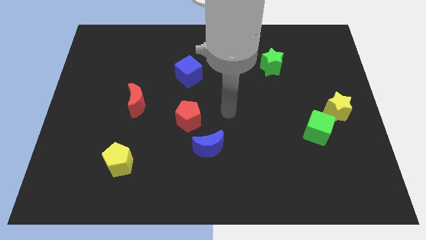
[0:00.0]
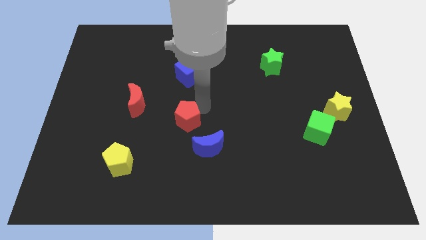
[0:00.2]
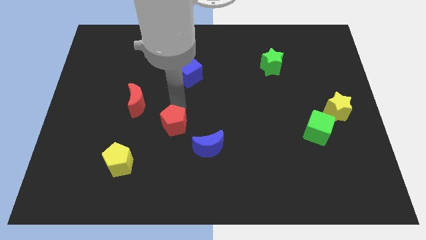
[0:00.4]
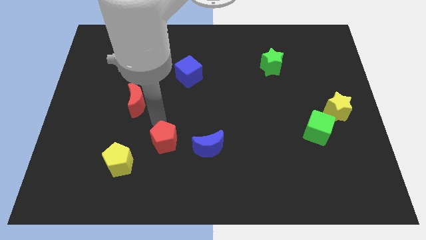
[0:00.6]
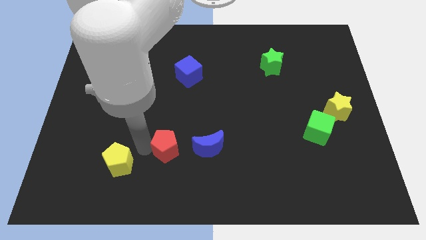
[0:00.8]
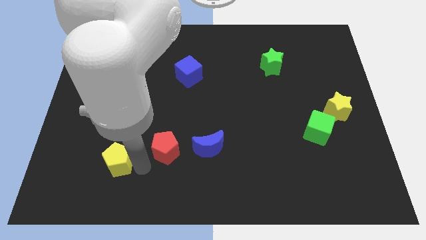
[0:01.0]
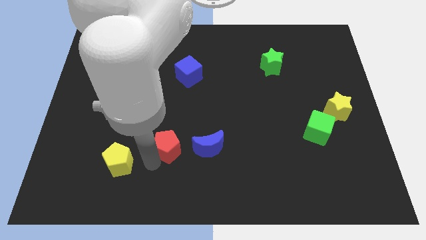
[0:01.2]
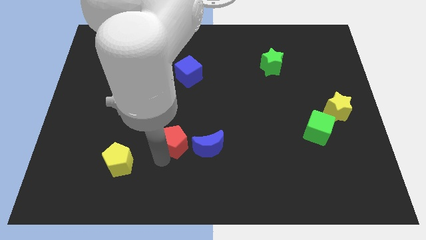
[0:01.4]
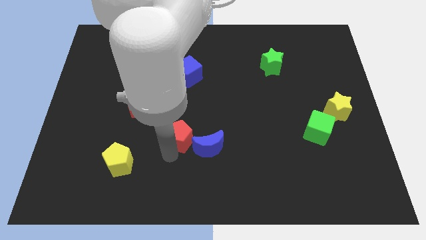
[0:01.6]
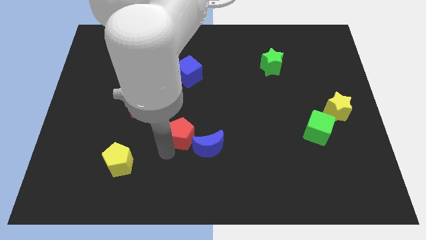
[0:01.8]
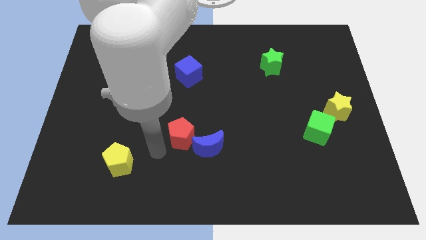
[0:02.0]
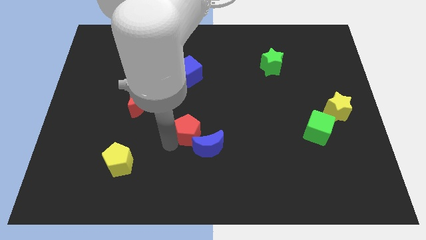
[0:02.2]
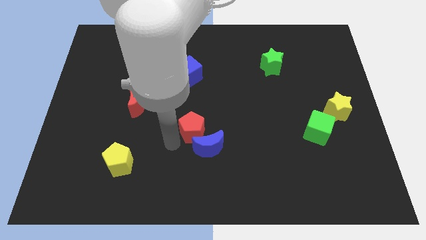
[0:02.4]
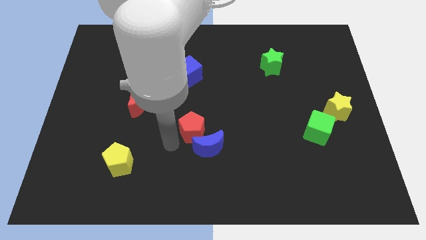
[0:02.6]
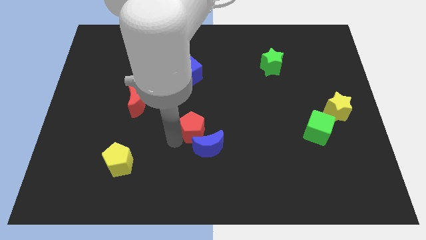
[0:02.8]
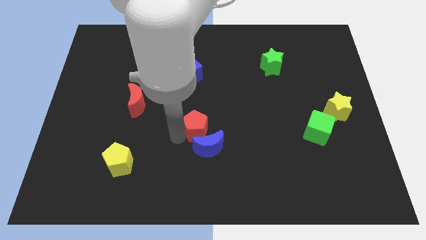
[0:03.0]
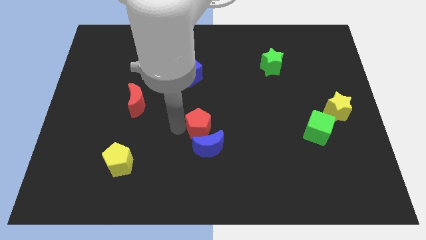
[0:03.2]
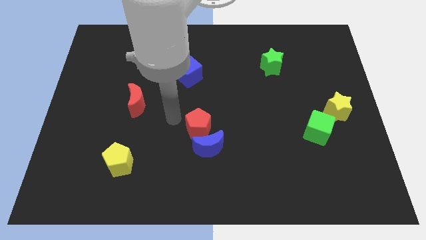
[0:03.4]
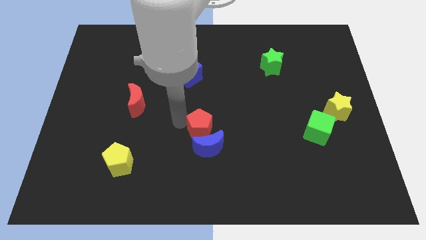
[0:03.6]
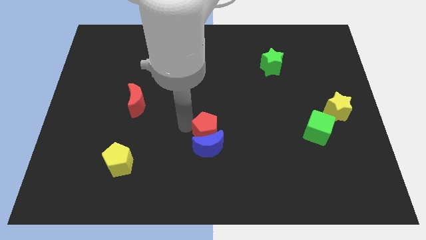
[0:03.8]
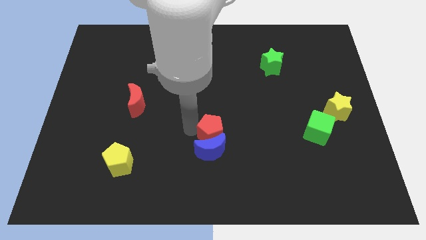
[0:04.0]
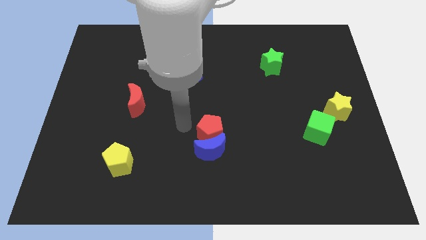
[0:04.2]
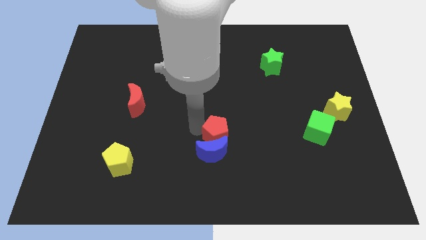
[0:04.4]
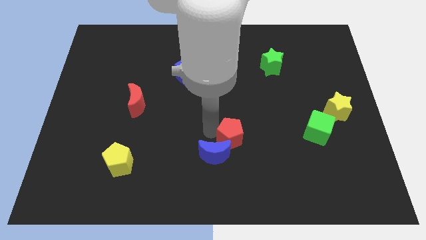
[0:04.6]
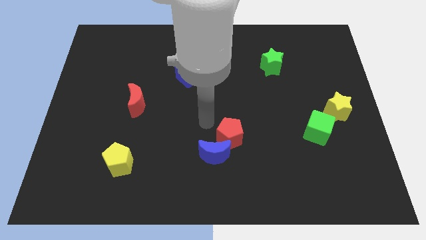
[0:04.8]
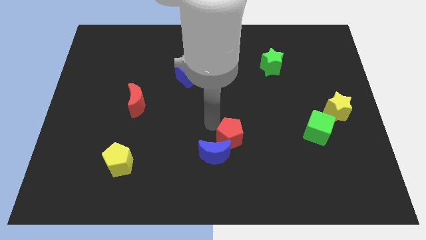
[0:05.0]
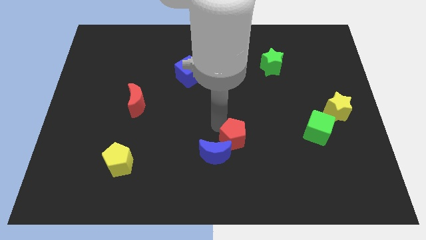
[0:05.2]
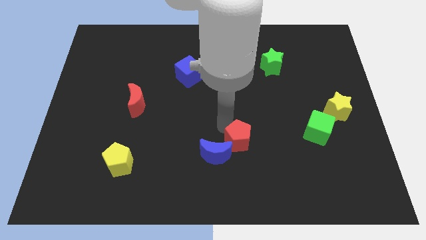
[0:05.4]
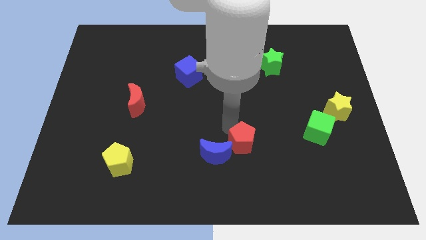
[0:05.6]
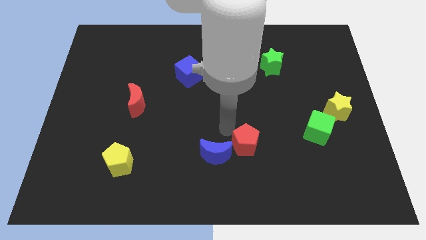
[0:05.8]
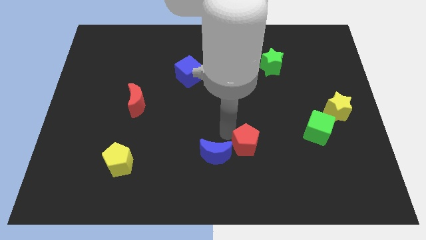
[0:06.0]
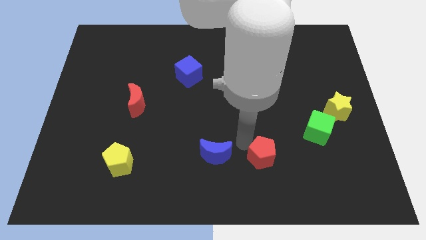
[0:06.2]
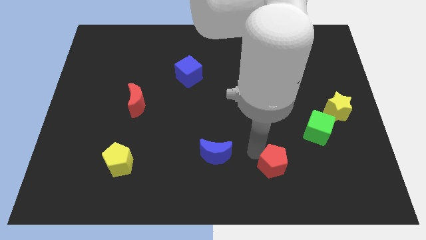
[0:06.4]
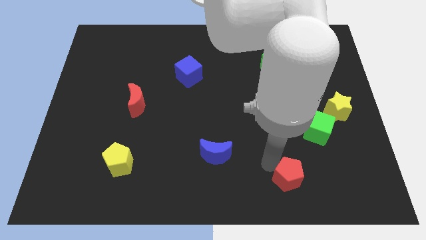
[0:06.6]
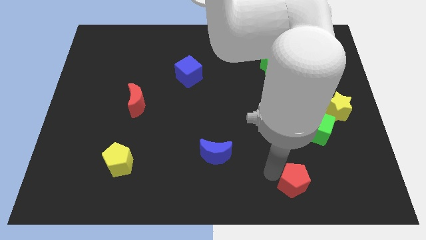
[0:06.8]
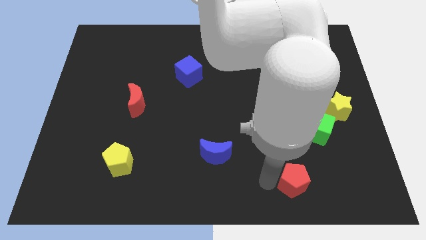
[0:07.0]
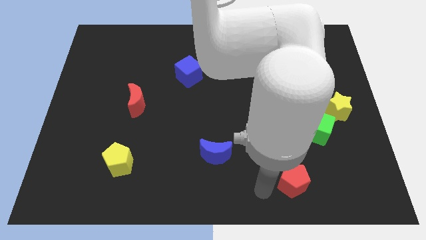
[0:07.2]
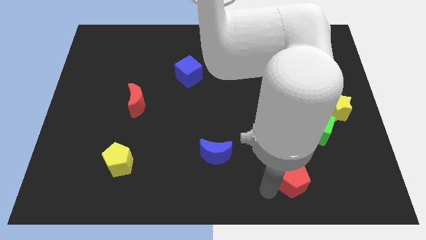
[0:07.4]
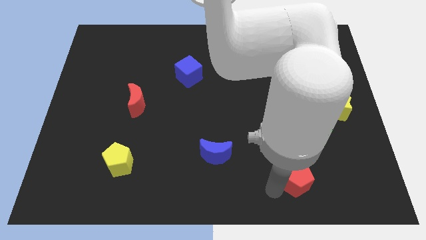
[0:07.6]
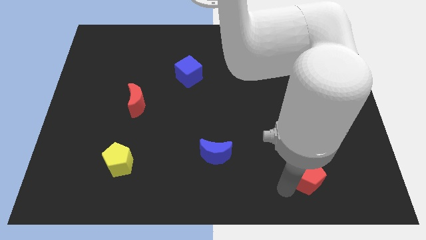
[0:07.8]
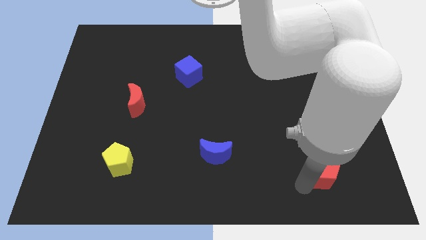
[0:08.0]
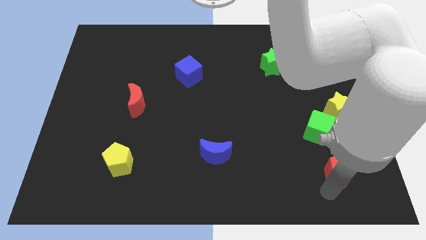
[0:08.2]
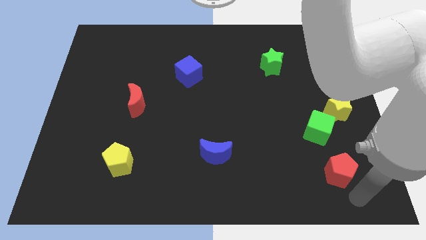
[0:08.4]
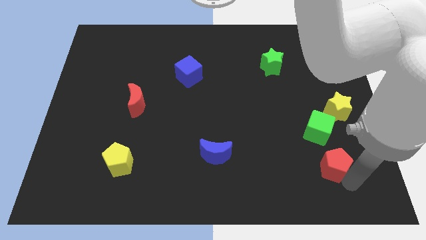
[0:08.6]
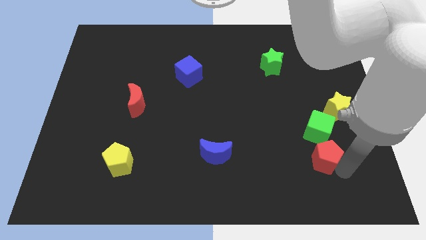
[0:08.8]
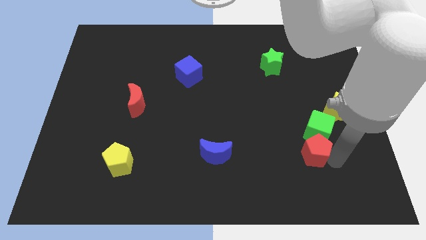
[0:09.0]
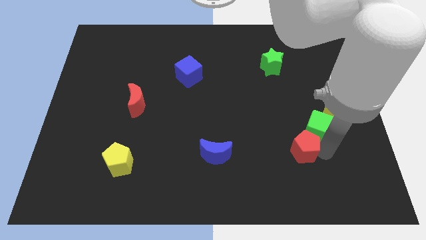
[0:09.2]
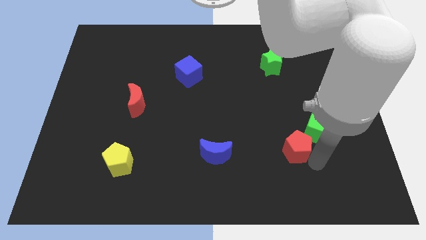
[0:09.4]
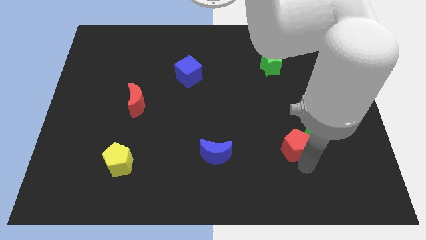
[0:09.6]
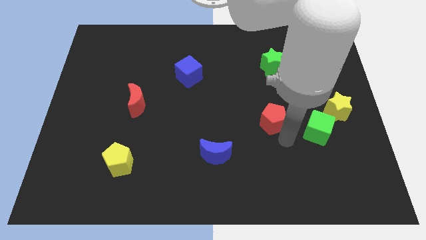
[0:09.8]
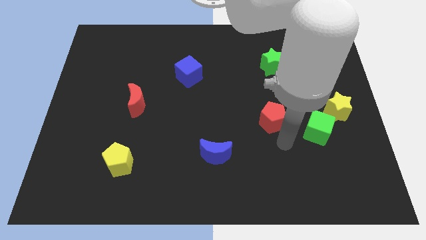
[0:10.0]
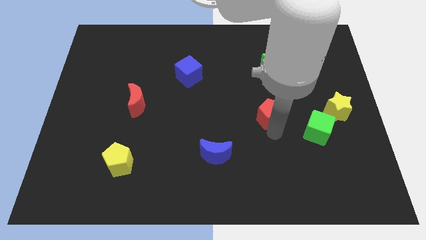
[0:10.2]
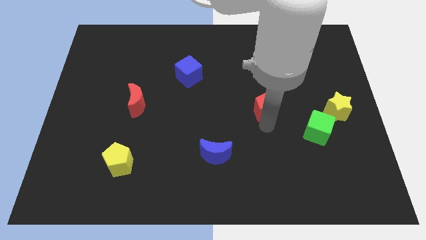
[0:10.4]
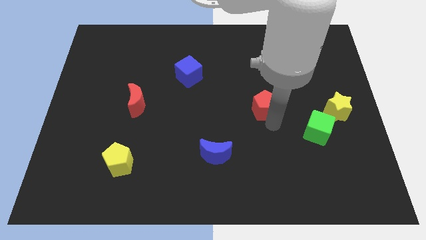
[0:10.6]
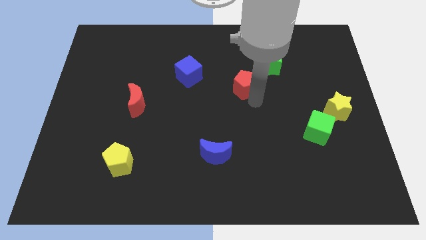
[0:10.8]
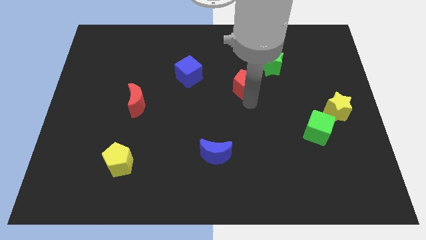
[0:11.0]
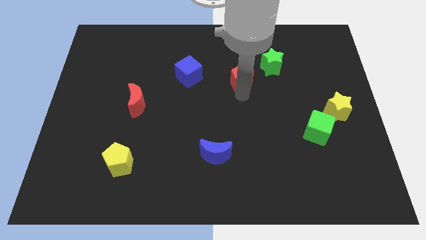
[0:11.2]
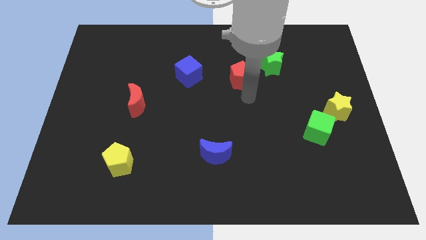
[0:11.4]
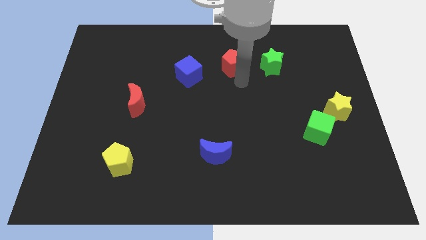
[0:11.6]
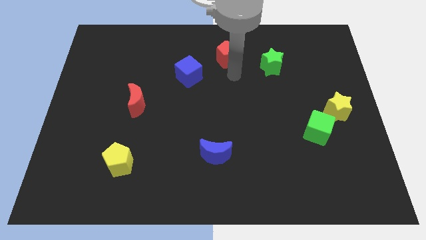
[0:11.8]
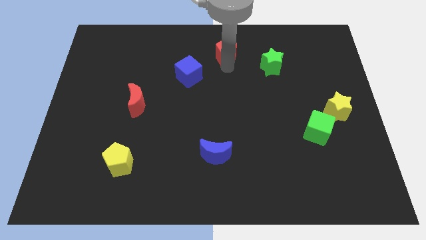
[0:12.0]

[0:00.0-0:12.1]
move the red pentagon to the top

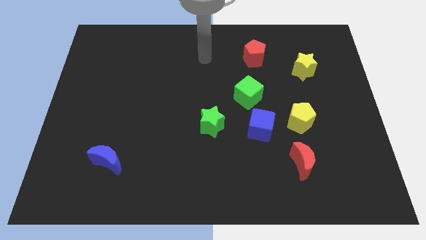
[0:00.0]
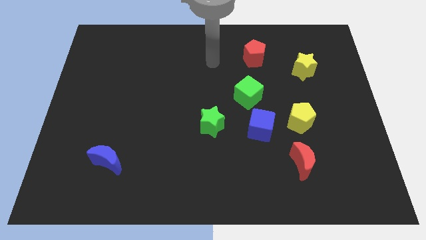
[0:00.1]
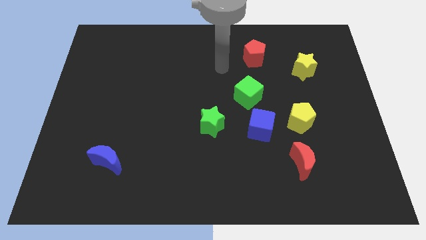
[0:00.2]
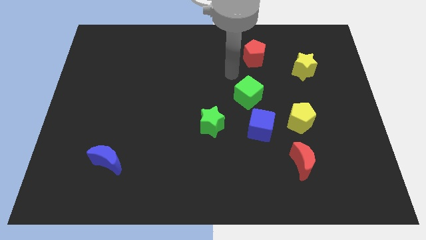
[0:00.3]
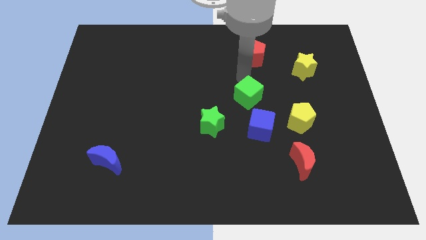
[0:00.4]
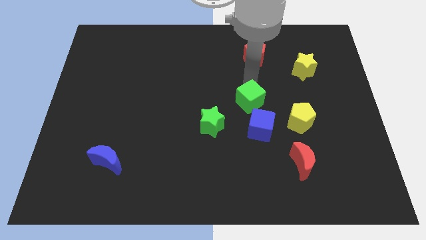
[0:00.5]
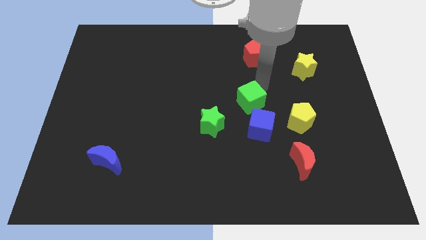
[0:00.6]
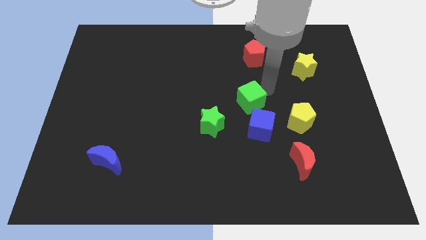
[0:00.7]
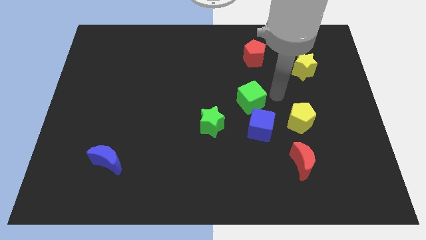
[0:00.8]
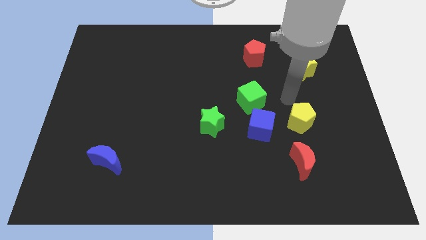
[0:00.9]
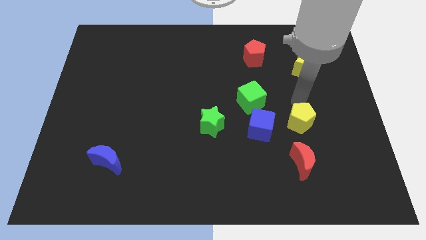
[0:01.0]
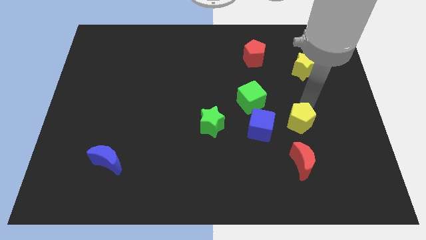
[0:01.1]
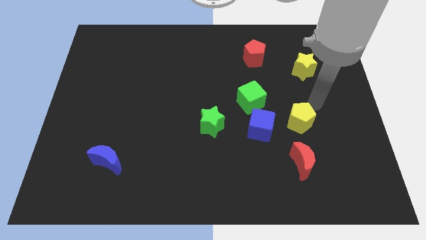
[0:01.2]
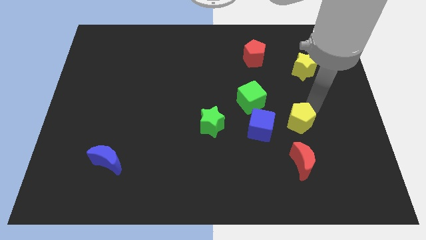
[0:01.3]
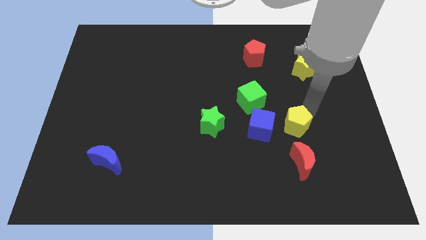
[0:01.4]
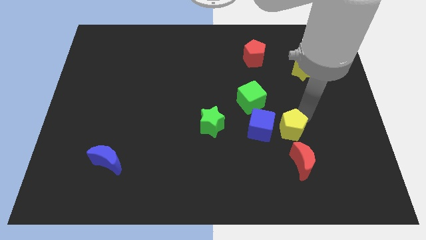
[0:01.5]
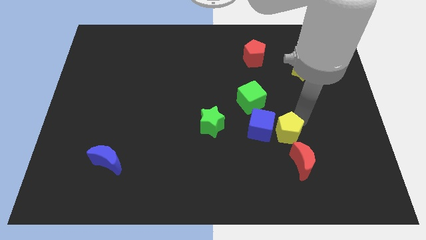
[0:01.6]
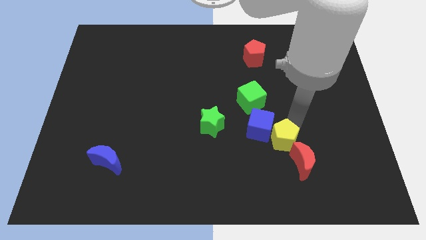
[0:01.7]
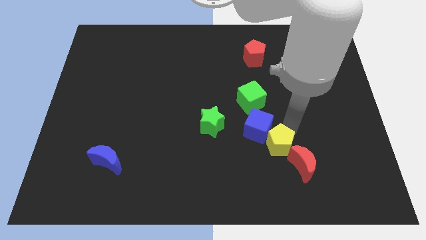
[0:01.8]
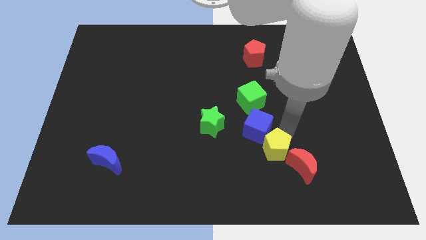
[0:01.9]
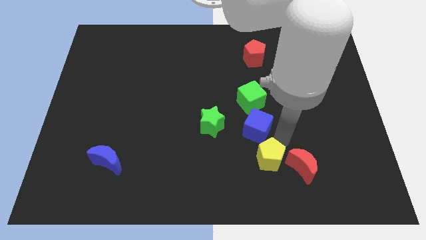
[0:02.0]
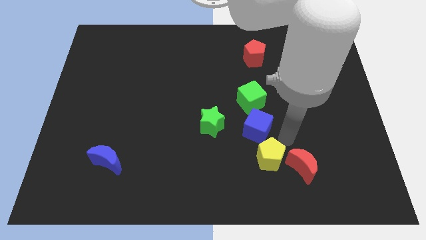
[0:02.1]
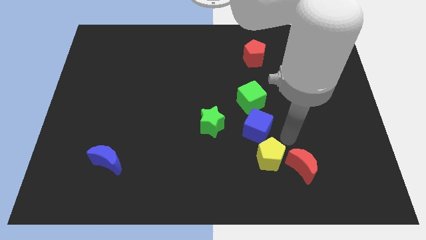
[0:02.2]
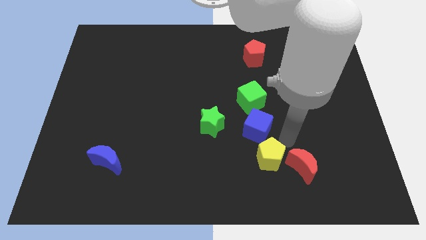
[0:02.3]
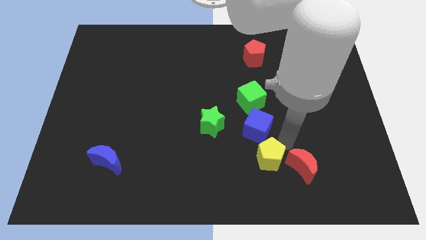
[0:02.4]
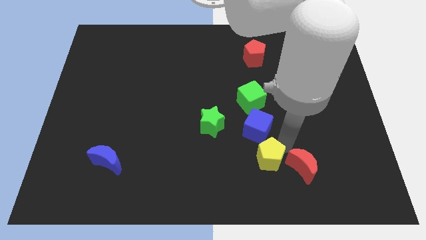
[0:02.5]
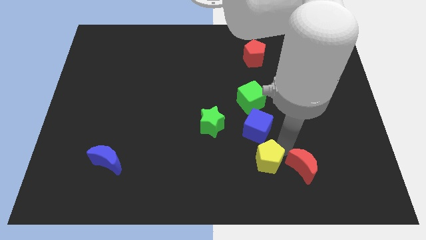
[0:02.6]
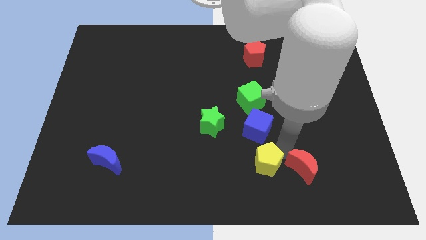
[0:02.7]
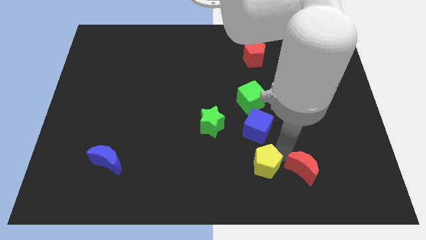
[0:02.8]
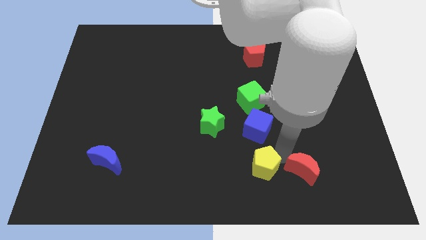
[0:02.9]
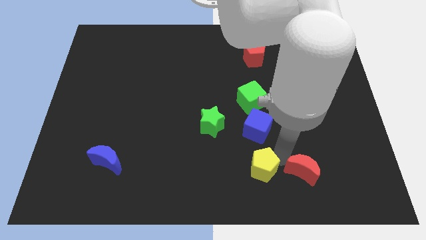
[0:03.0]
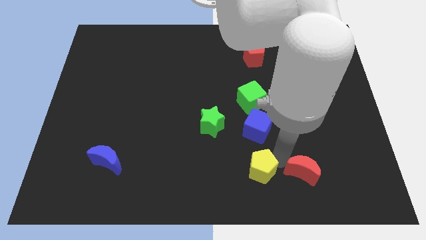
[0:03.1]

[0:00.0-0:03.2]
slide the yellow pentagon to the bottom side
